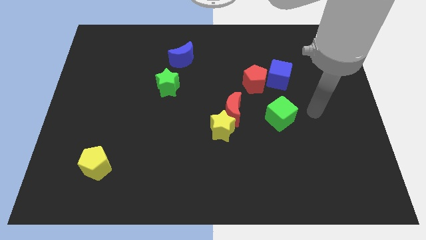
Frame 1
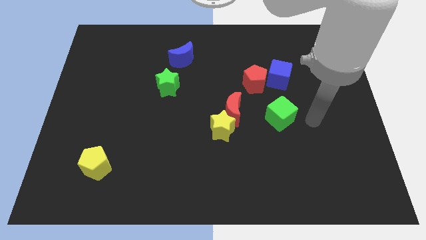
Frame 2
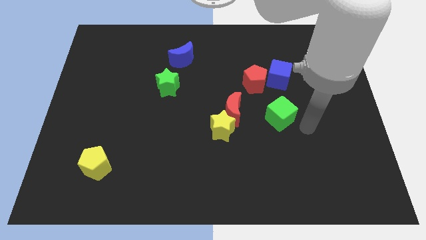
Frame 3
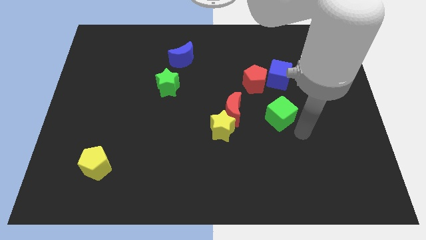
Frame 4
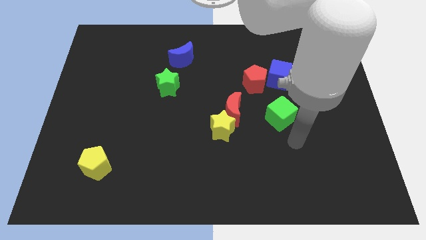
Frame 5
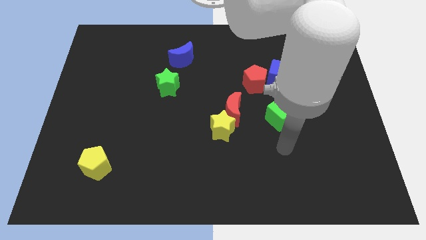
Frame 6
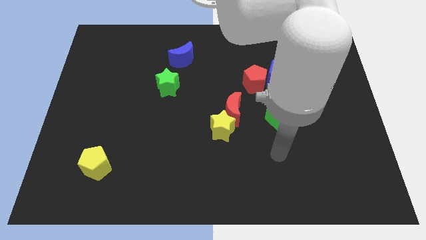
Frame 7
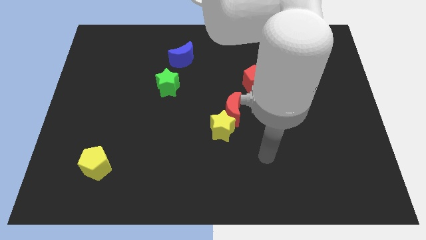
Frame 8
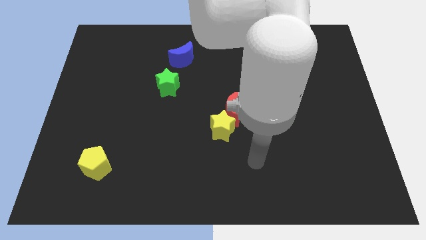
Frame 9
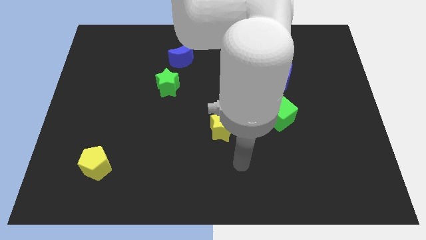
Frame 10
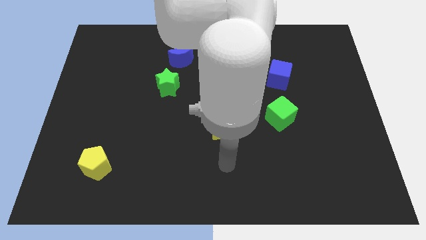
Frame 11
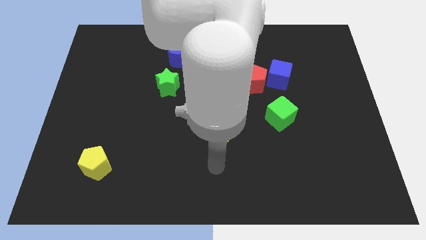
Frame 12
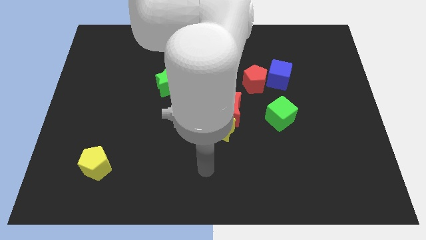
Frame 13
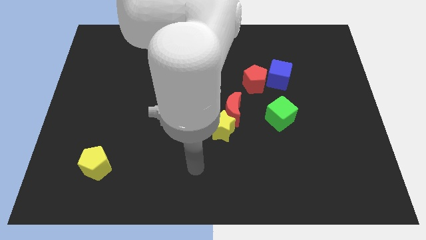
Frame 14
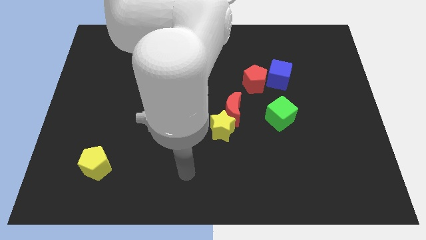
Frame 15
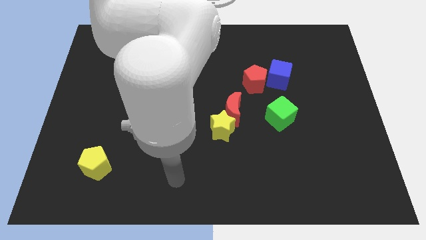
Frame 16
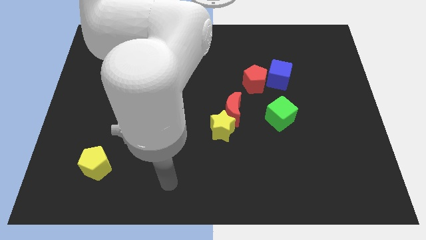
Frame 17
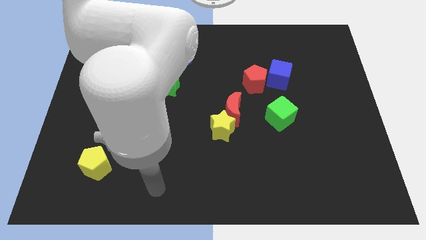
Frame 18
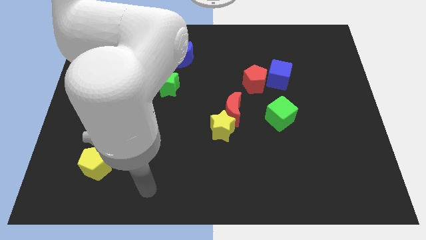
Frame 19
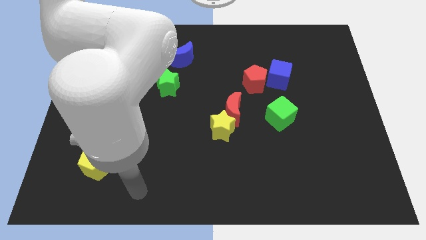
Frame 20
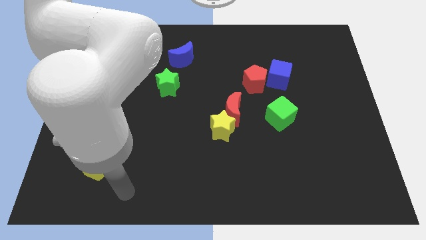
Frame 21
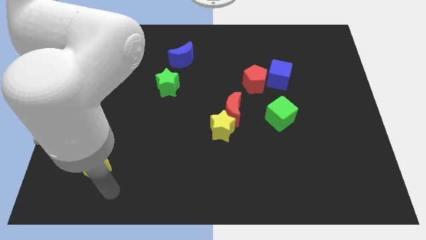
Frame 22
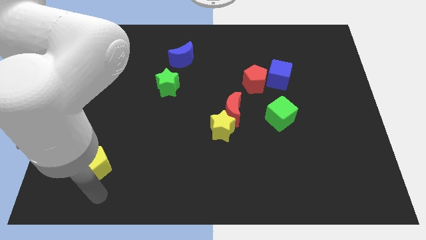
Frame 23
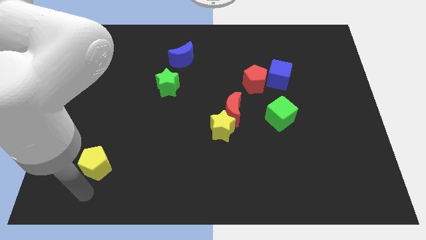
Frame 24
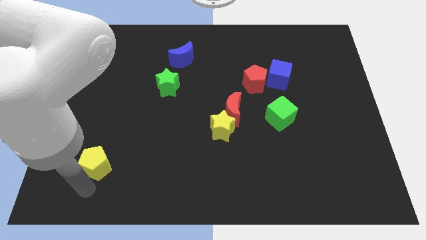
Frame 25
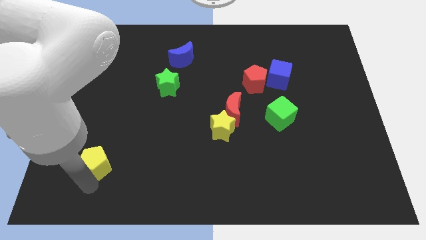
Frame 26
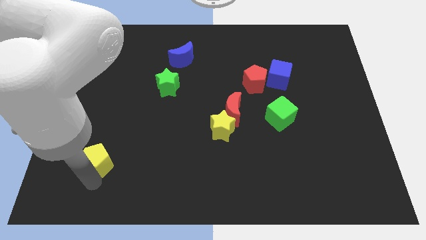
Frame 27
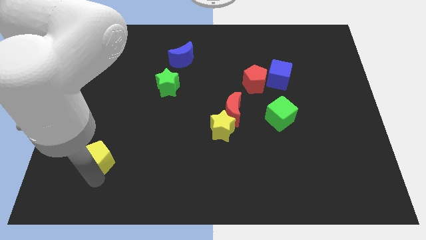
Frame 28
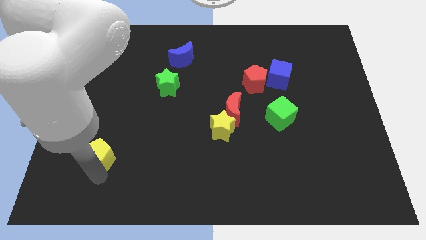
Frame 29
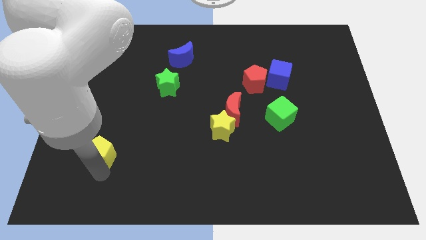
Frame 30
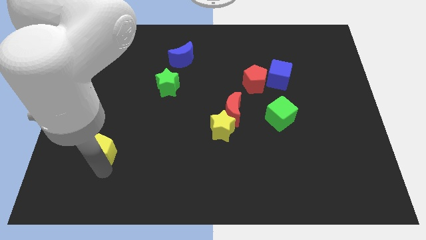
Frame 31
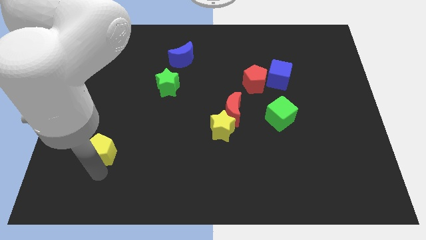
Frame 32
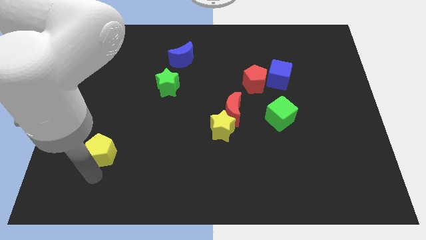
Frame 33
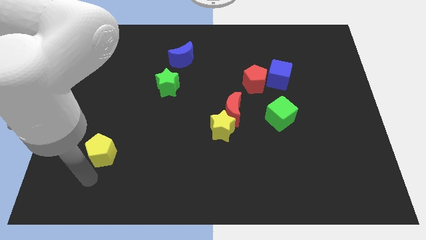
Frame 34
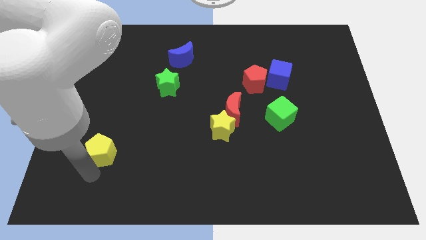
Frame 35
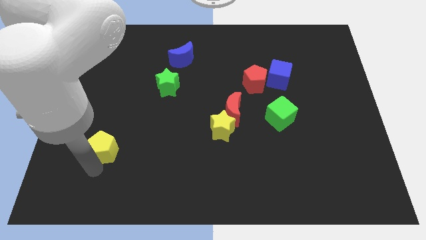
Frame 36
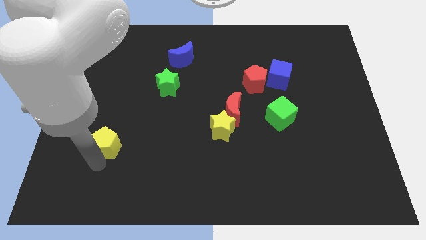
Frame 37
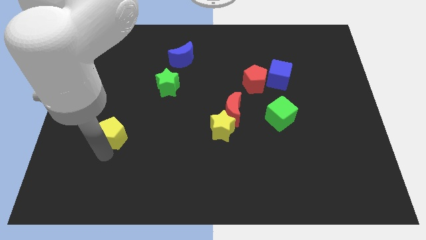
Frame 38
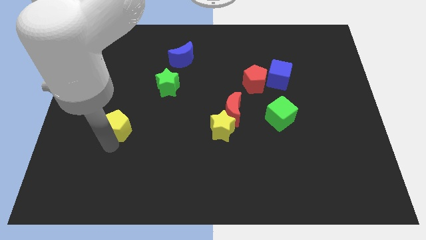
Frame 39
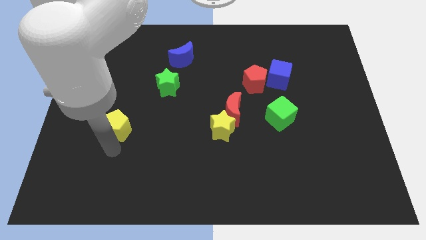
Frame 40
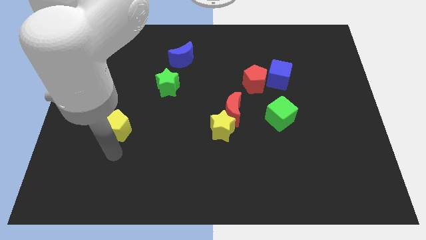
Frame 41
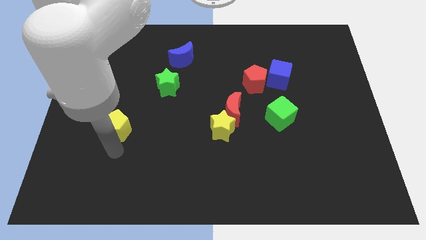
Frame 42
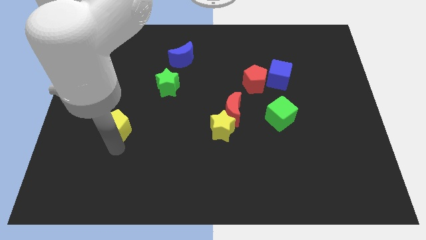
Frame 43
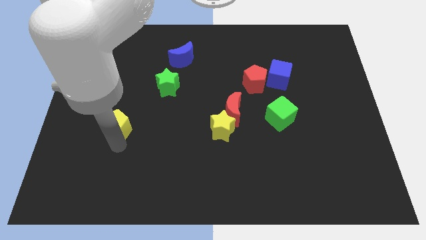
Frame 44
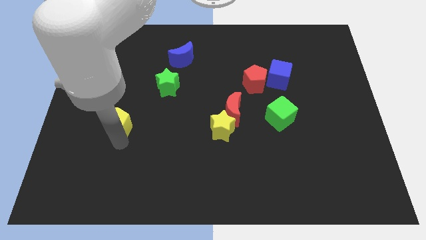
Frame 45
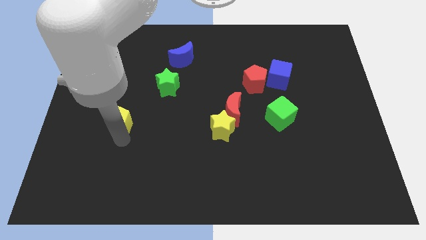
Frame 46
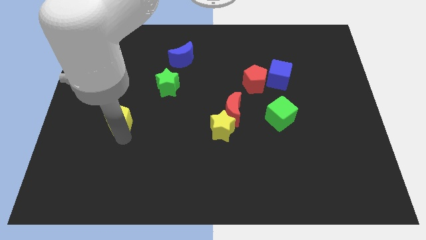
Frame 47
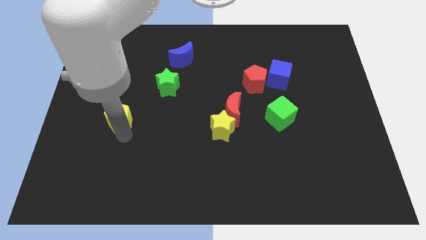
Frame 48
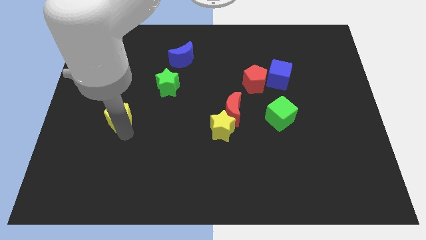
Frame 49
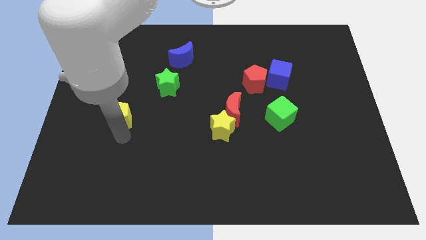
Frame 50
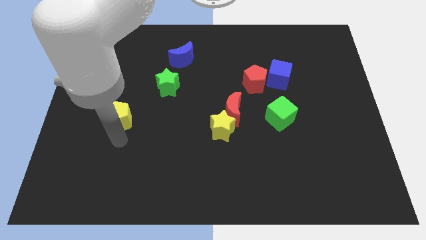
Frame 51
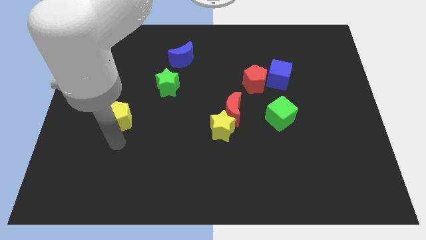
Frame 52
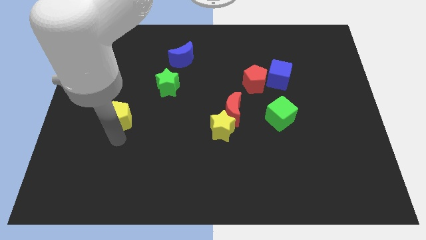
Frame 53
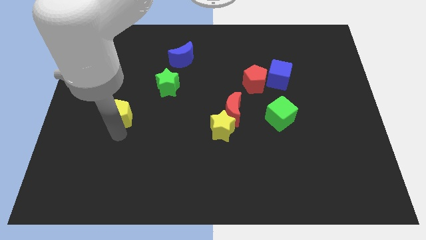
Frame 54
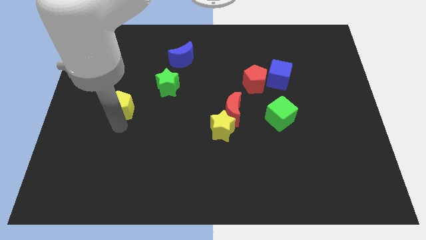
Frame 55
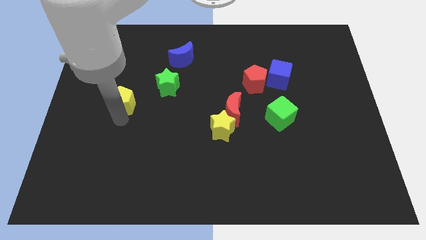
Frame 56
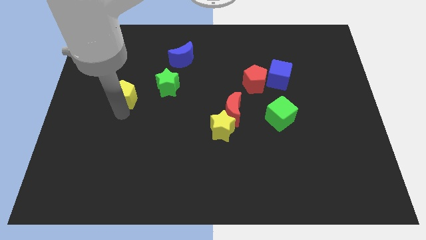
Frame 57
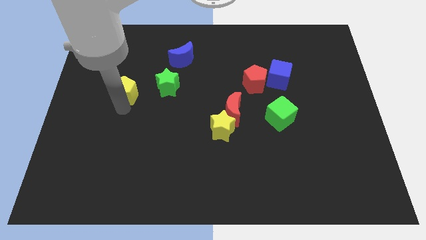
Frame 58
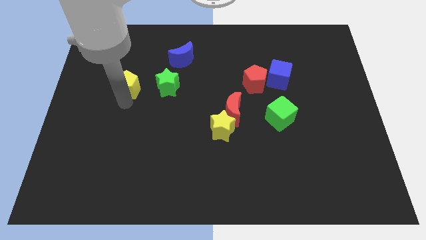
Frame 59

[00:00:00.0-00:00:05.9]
push the yellow pentagon upwards

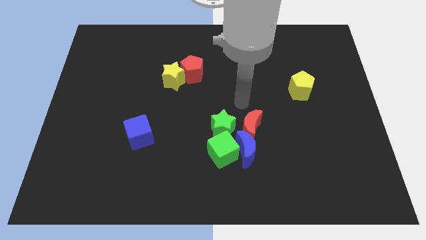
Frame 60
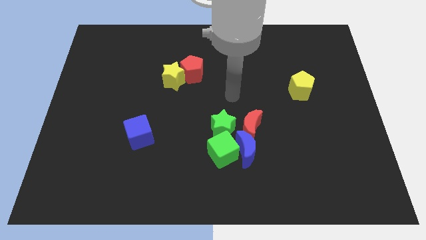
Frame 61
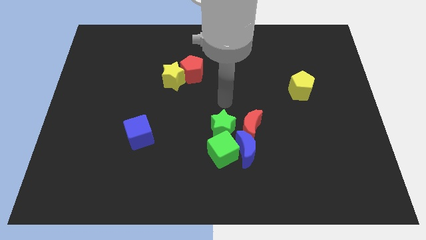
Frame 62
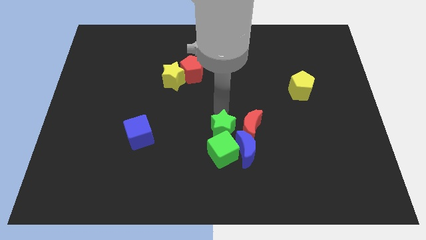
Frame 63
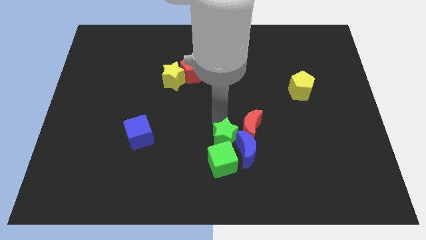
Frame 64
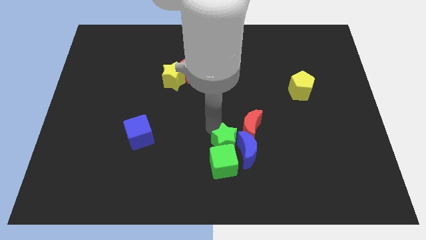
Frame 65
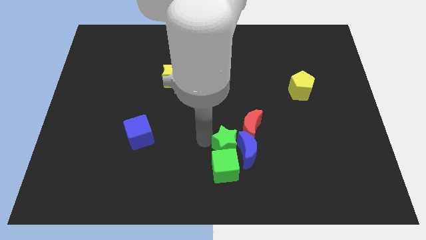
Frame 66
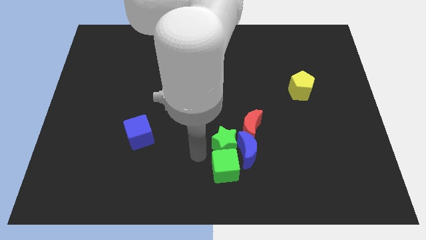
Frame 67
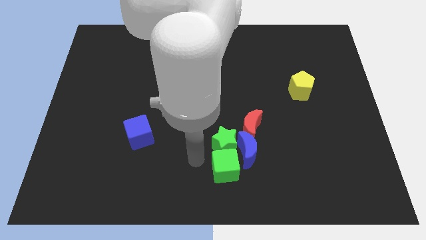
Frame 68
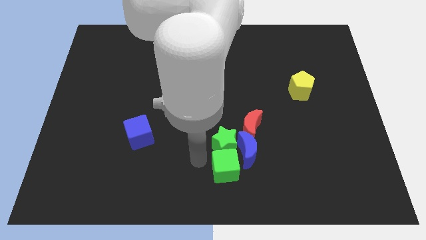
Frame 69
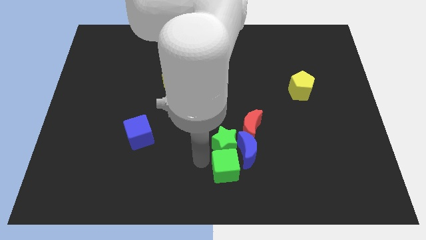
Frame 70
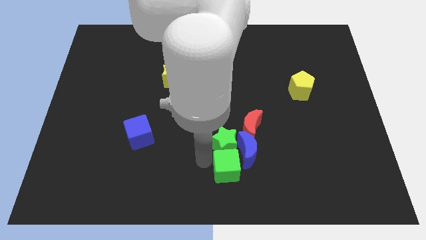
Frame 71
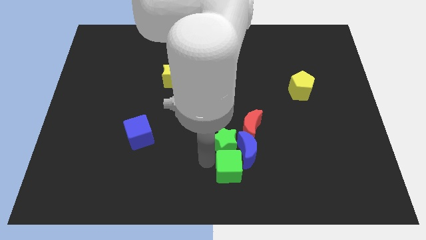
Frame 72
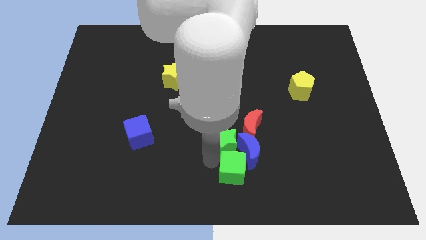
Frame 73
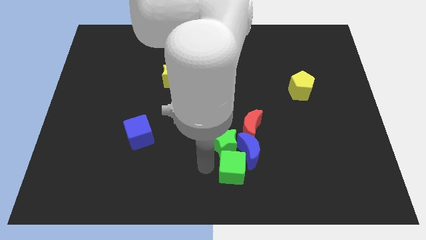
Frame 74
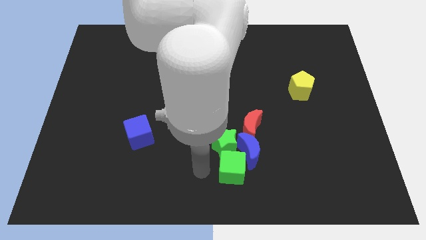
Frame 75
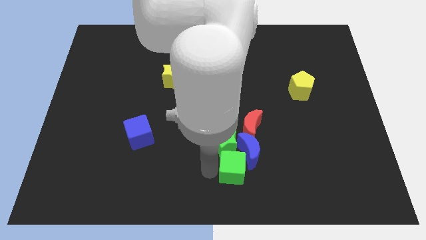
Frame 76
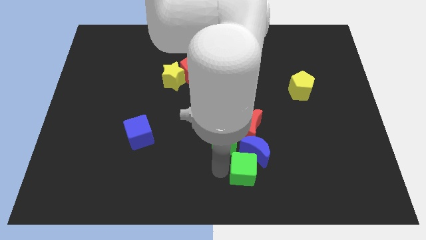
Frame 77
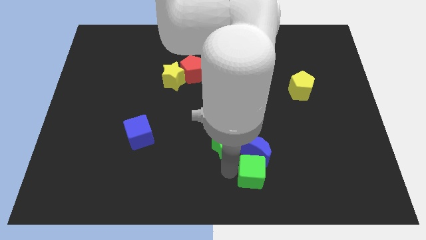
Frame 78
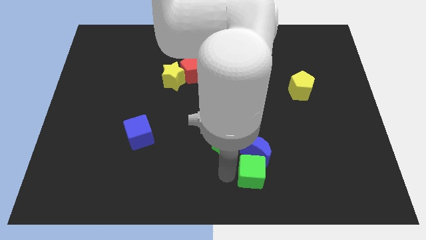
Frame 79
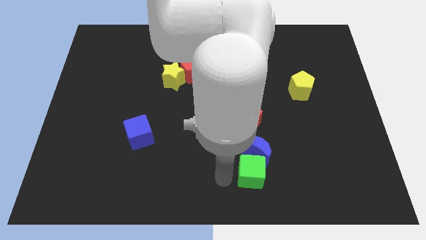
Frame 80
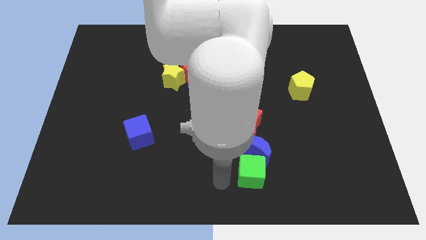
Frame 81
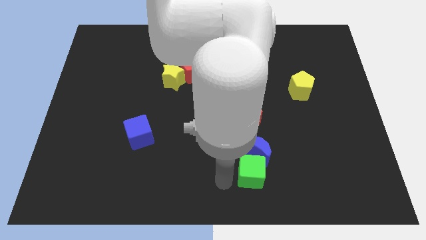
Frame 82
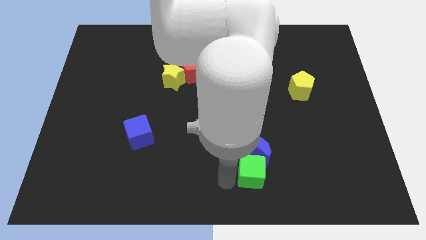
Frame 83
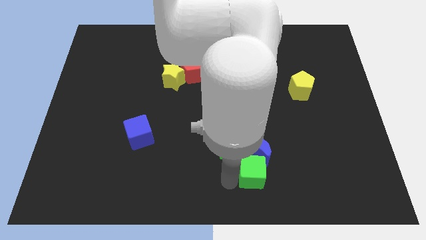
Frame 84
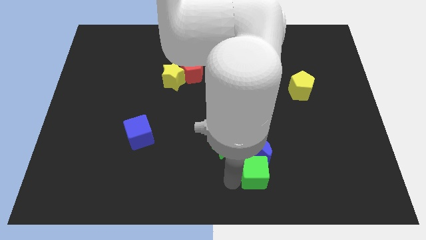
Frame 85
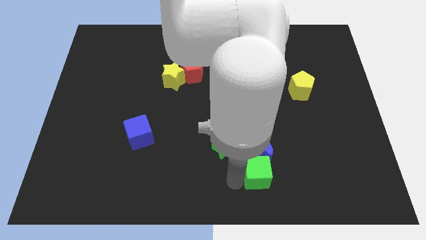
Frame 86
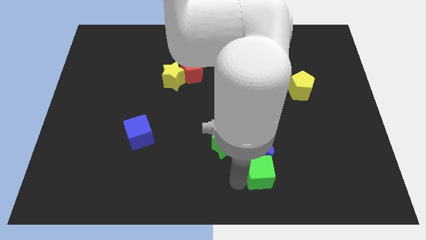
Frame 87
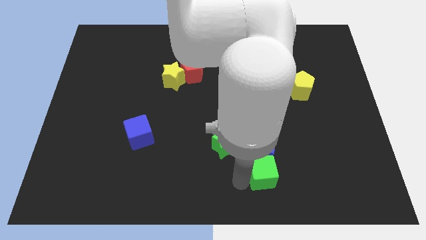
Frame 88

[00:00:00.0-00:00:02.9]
slide the green cube a bit right
